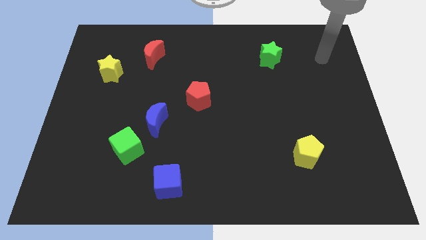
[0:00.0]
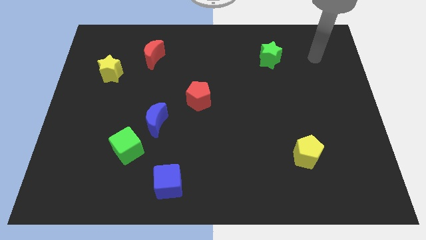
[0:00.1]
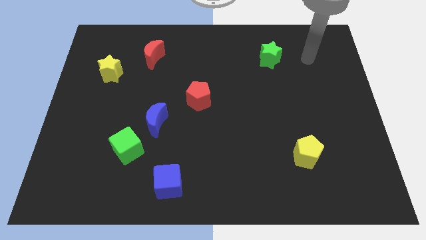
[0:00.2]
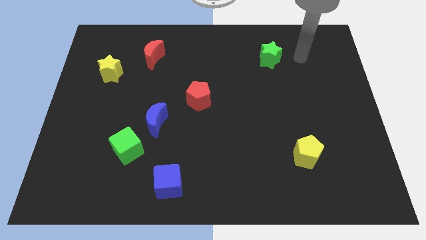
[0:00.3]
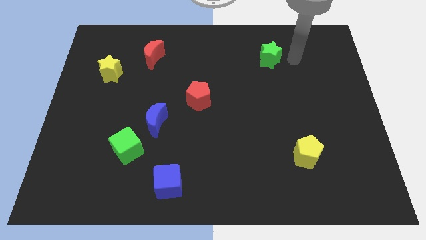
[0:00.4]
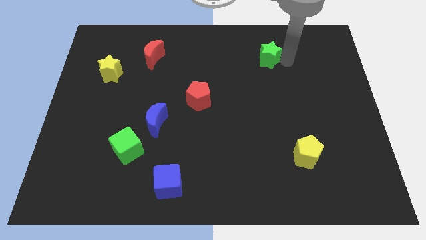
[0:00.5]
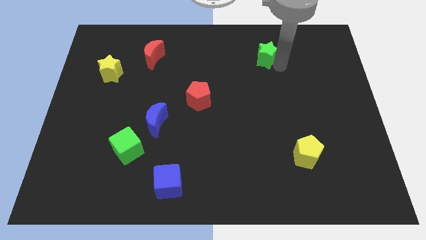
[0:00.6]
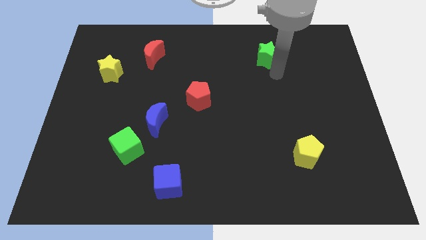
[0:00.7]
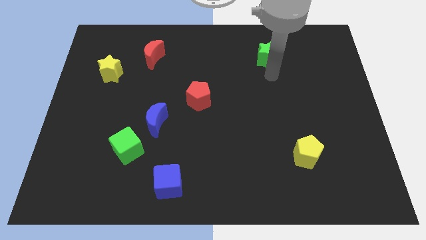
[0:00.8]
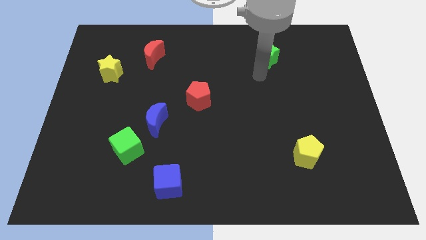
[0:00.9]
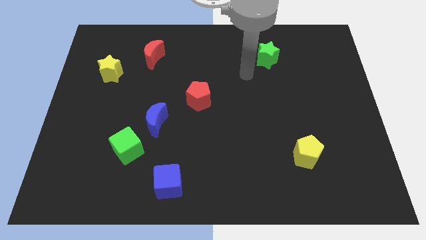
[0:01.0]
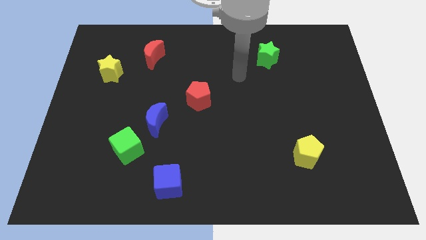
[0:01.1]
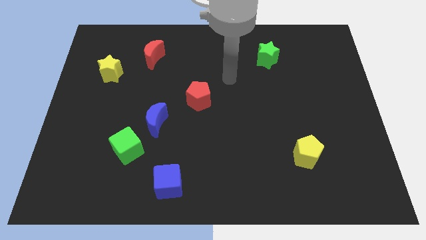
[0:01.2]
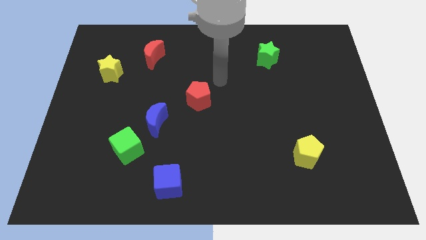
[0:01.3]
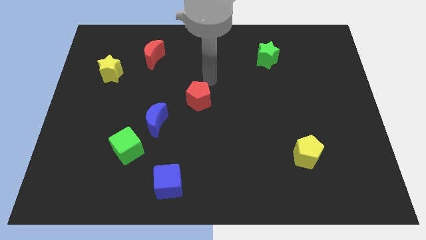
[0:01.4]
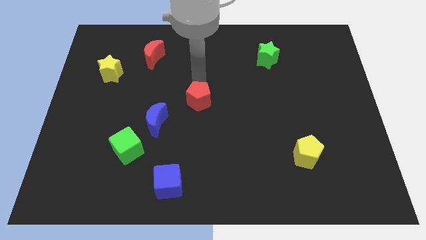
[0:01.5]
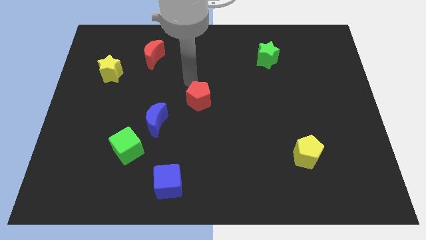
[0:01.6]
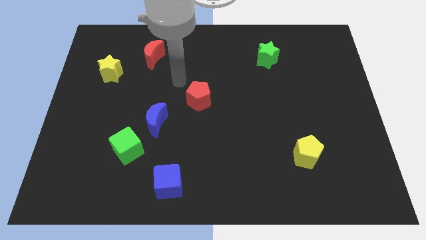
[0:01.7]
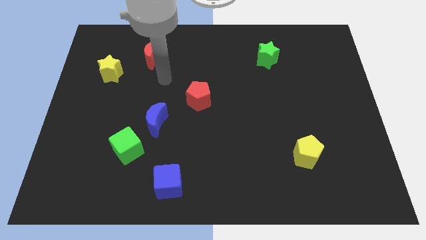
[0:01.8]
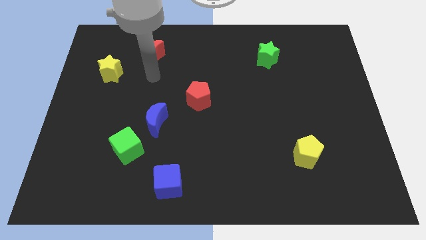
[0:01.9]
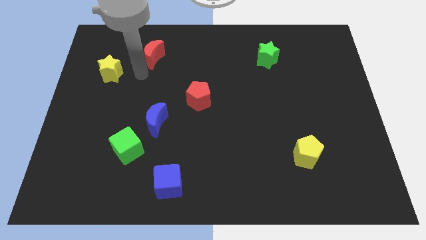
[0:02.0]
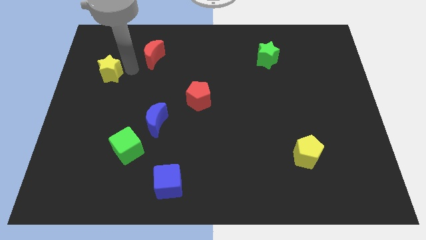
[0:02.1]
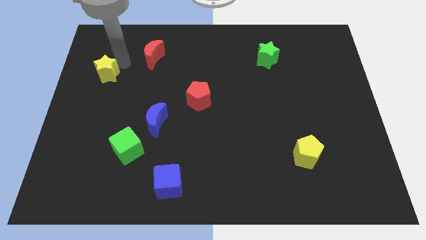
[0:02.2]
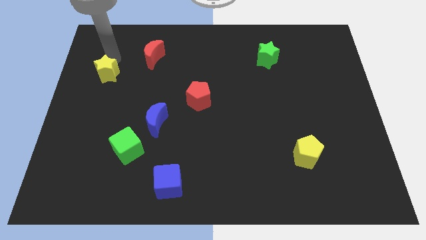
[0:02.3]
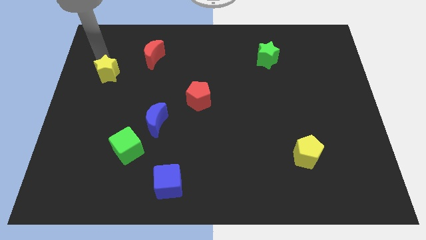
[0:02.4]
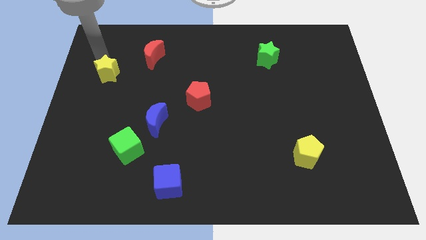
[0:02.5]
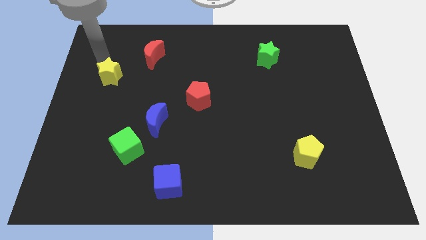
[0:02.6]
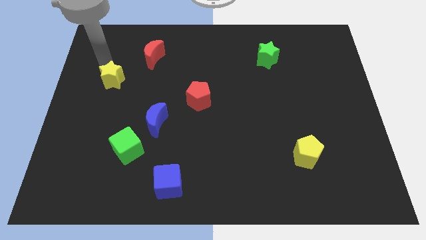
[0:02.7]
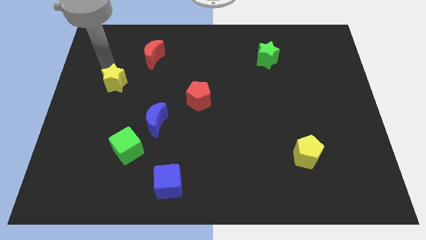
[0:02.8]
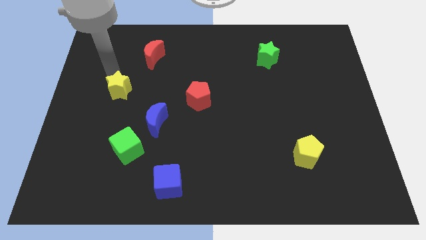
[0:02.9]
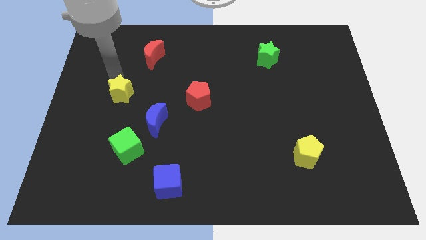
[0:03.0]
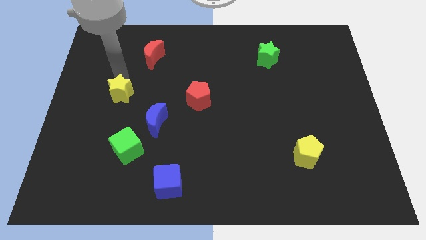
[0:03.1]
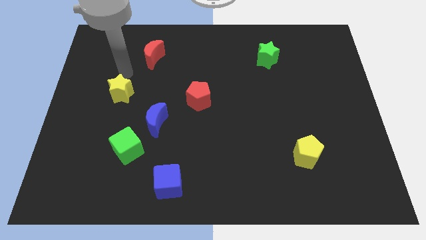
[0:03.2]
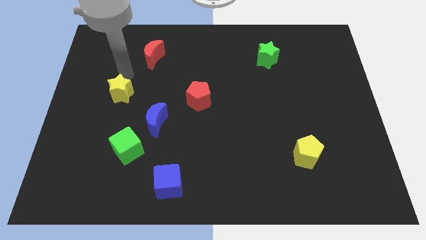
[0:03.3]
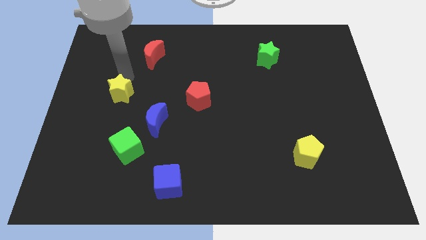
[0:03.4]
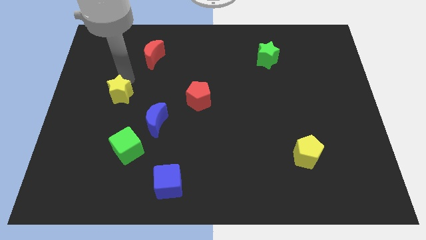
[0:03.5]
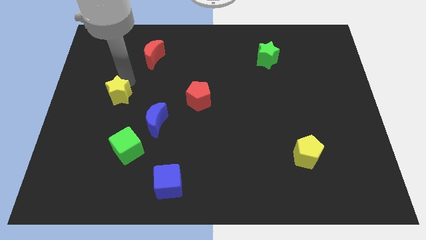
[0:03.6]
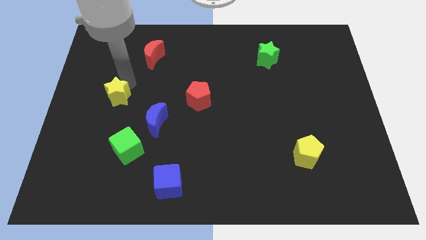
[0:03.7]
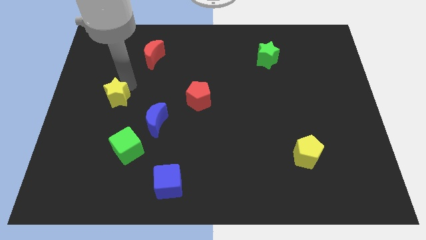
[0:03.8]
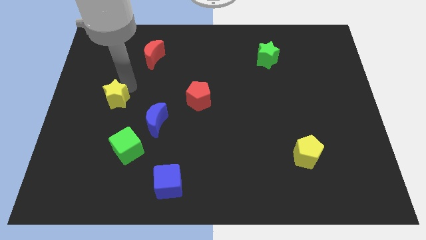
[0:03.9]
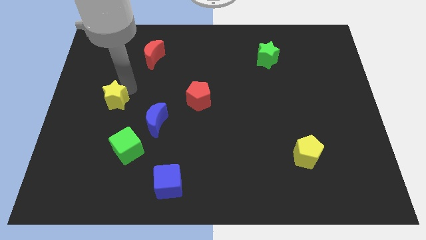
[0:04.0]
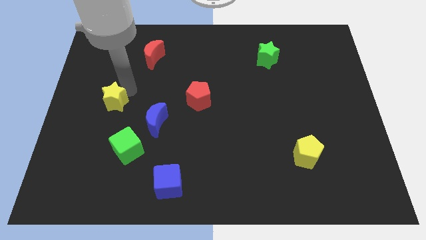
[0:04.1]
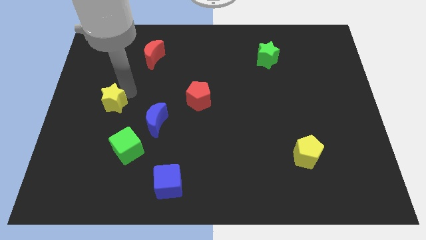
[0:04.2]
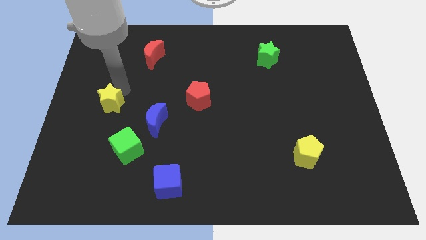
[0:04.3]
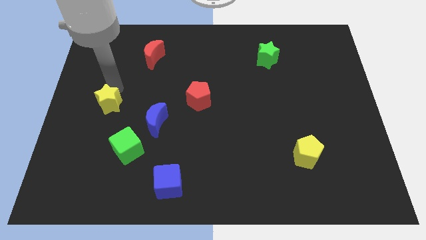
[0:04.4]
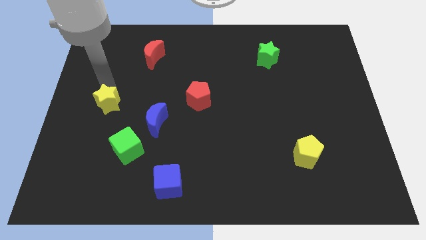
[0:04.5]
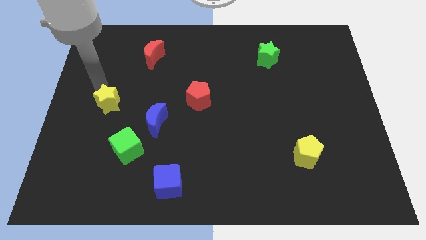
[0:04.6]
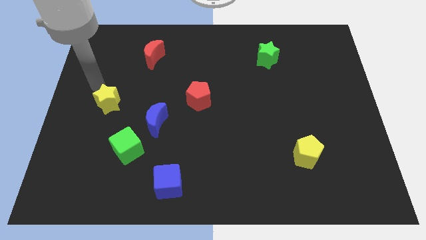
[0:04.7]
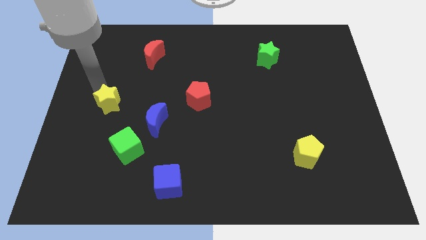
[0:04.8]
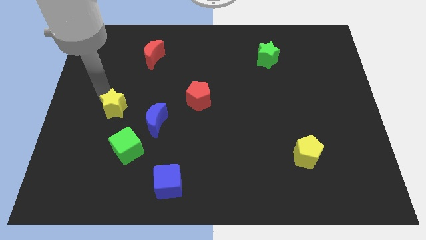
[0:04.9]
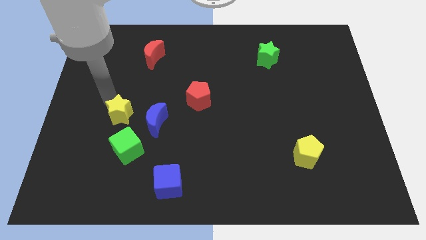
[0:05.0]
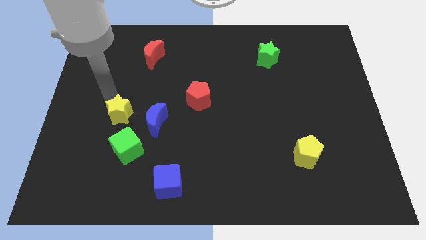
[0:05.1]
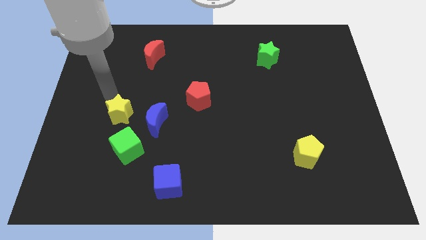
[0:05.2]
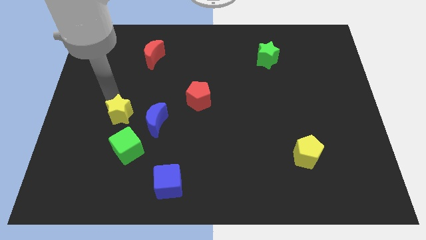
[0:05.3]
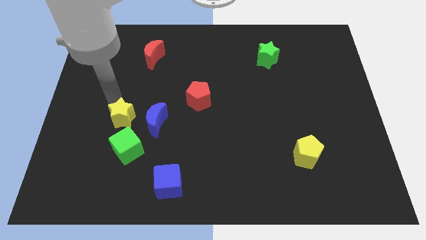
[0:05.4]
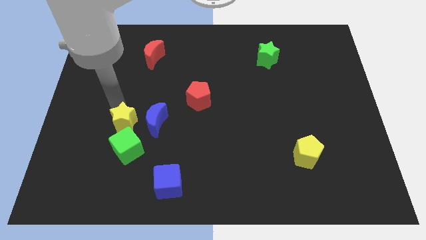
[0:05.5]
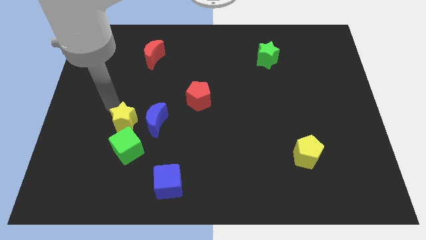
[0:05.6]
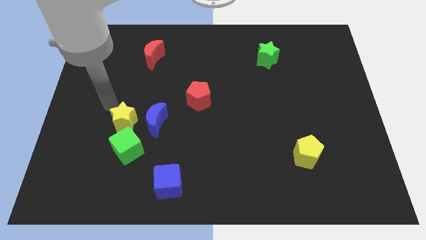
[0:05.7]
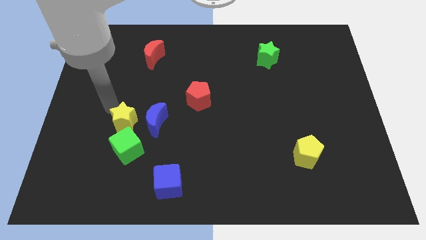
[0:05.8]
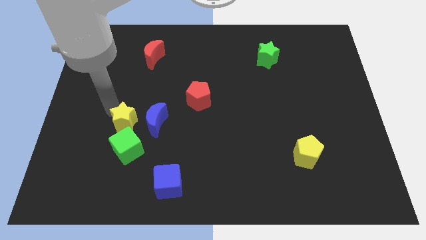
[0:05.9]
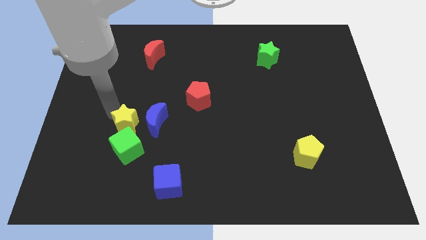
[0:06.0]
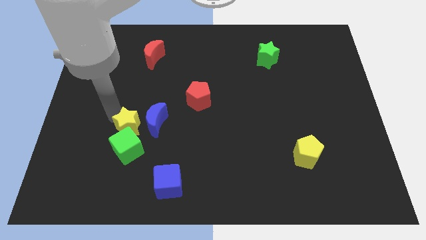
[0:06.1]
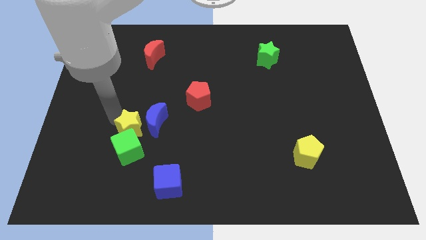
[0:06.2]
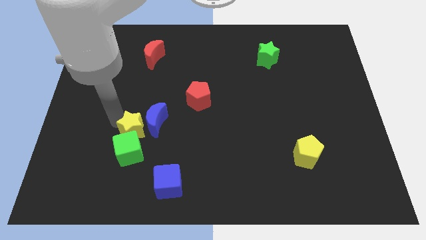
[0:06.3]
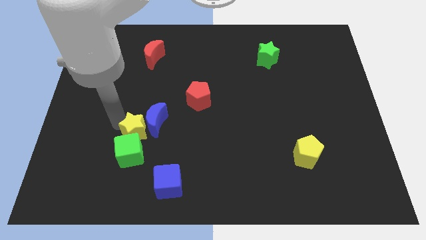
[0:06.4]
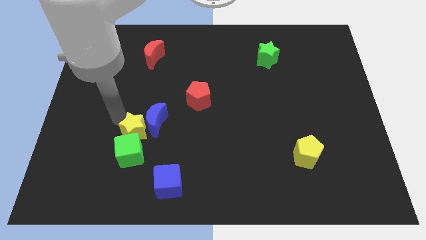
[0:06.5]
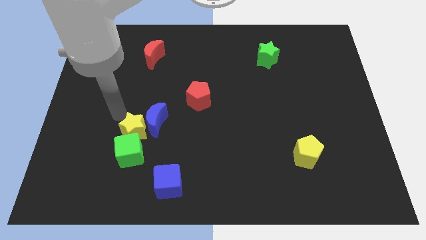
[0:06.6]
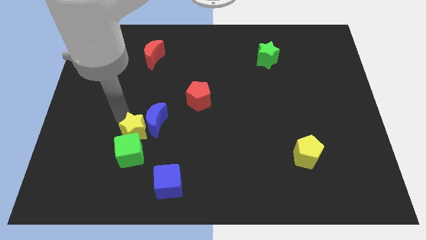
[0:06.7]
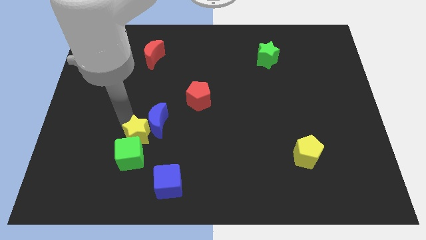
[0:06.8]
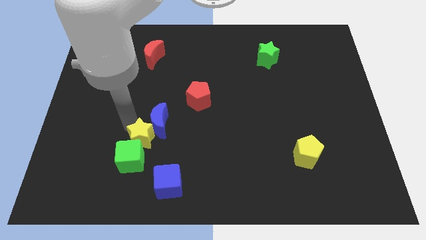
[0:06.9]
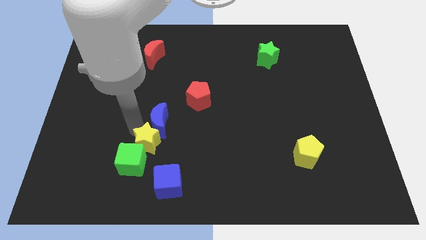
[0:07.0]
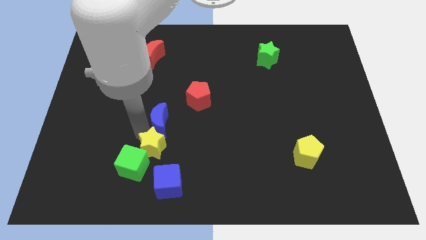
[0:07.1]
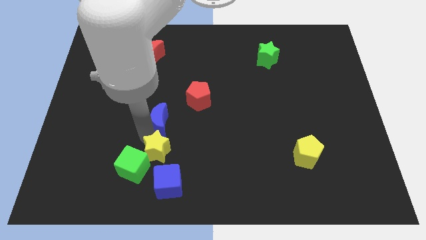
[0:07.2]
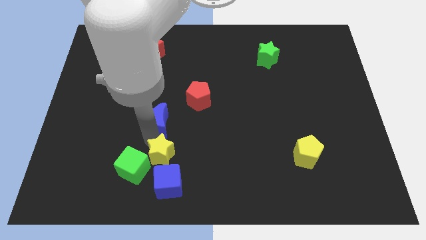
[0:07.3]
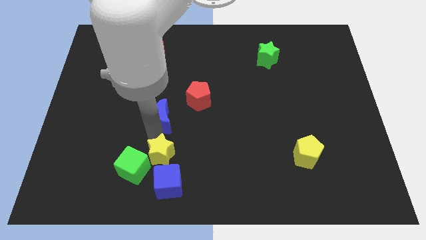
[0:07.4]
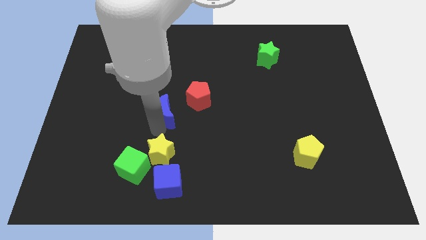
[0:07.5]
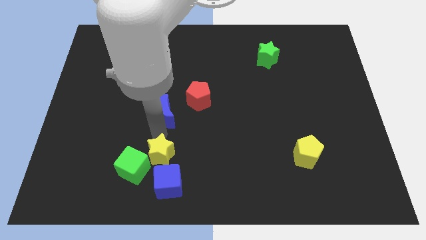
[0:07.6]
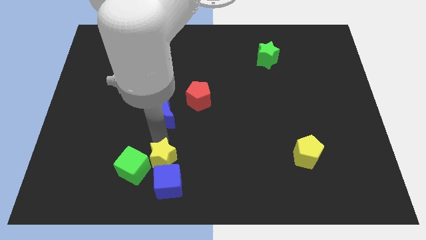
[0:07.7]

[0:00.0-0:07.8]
push the yellow star towards the blue cube
